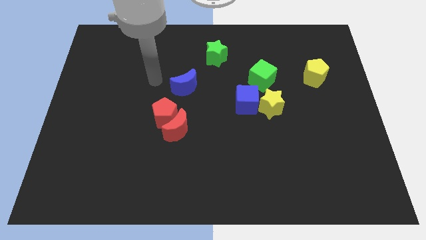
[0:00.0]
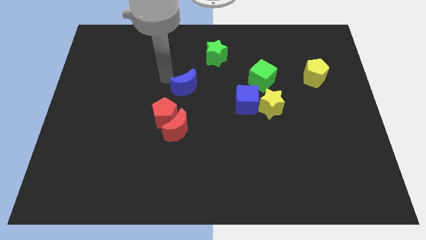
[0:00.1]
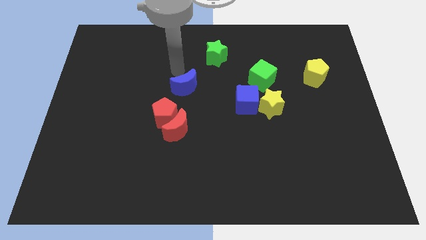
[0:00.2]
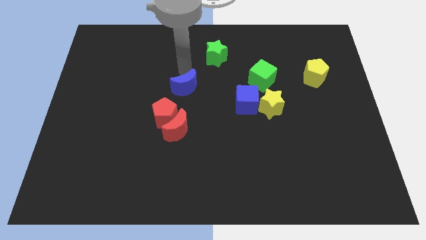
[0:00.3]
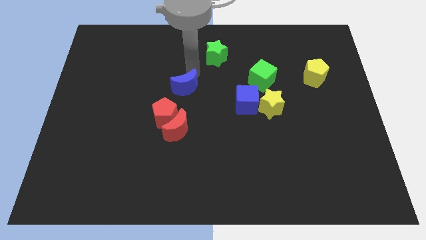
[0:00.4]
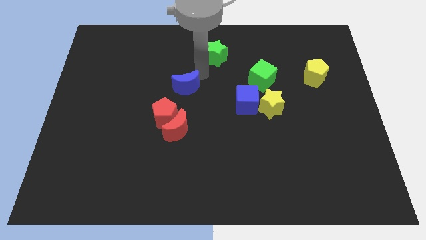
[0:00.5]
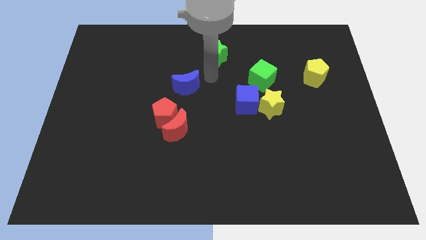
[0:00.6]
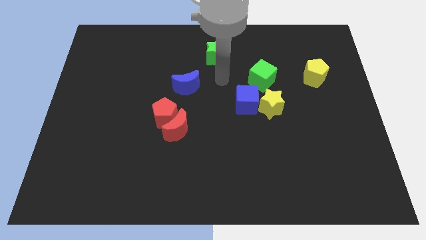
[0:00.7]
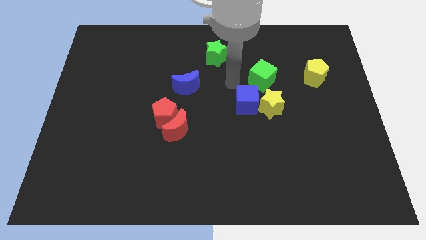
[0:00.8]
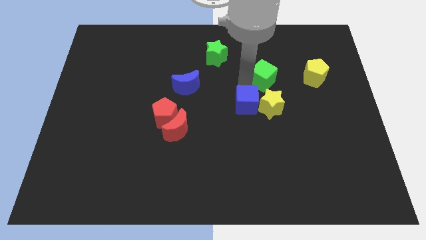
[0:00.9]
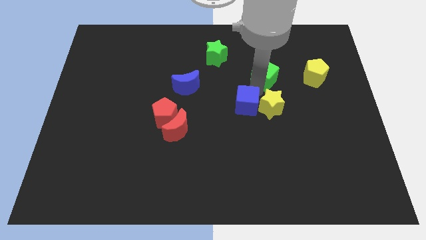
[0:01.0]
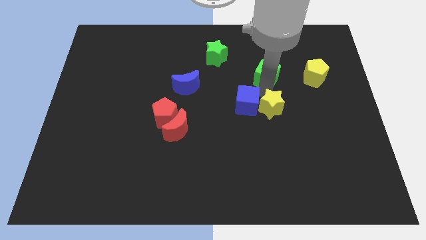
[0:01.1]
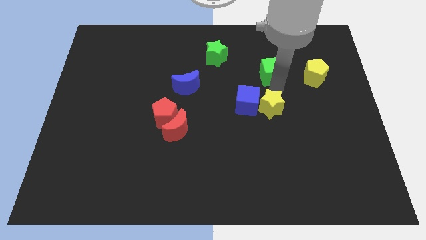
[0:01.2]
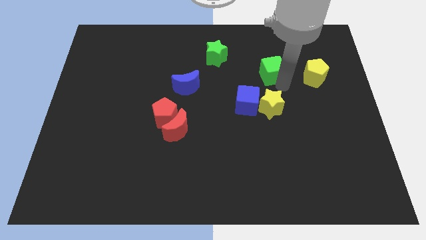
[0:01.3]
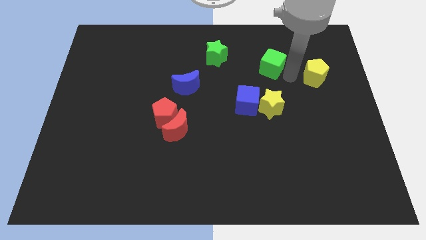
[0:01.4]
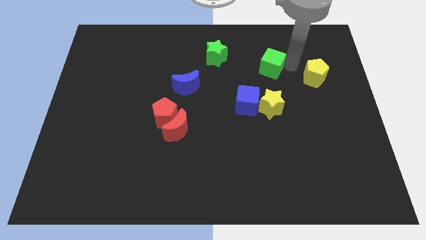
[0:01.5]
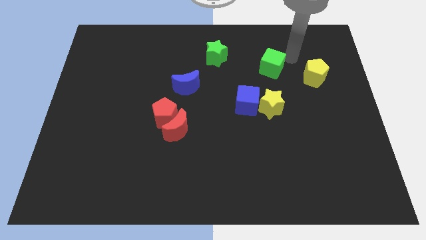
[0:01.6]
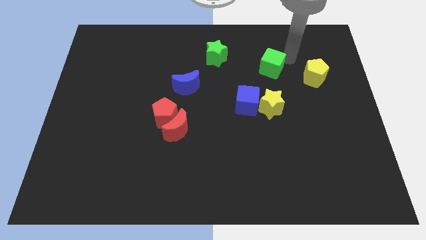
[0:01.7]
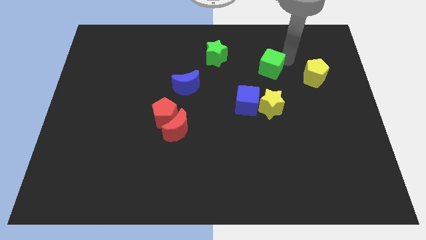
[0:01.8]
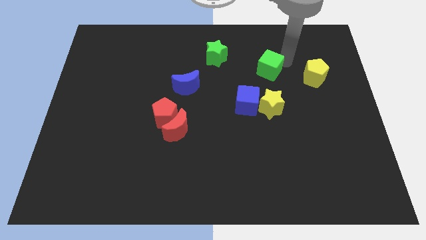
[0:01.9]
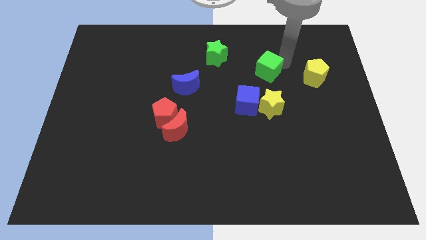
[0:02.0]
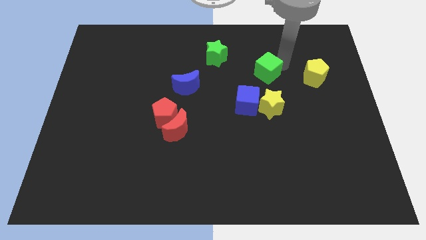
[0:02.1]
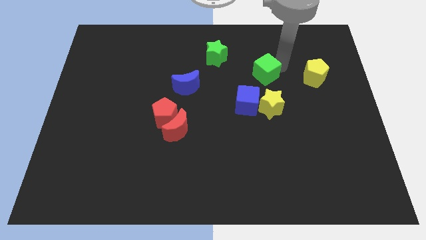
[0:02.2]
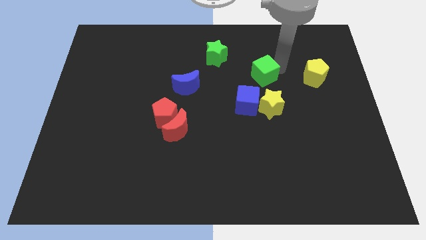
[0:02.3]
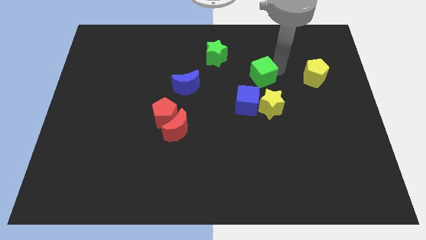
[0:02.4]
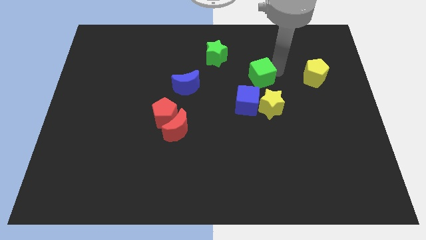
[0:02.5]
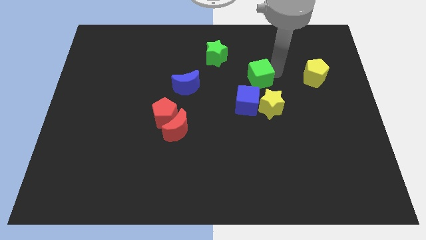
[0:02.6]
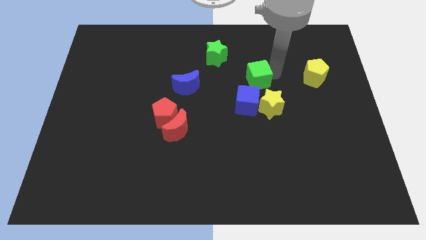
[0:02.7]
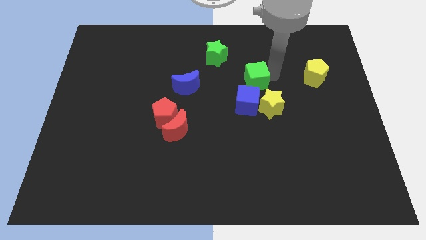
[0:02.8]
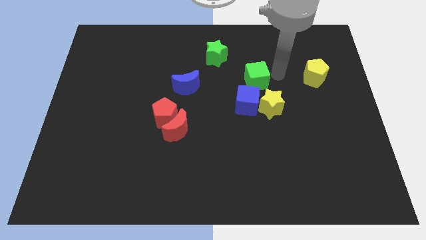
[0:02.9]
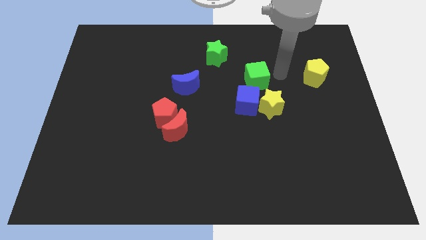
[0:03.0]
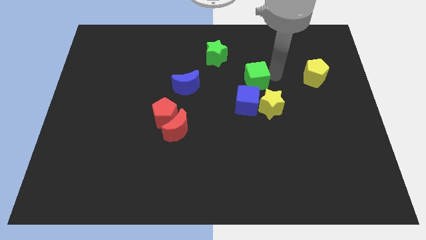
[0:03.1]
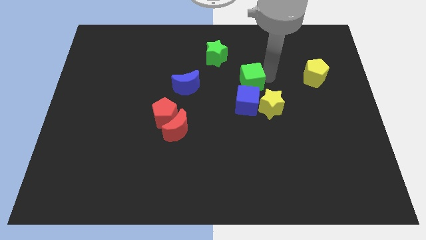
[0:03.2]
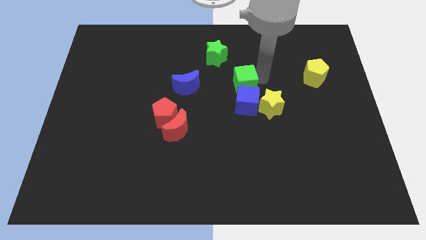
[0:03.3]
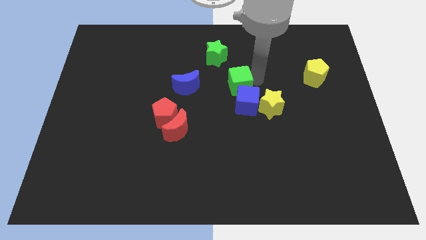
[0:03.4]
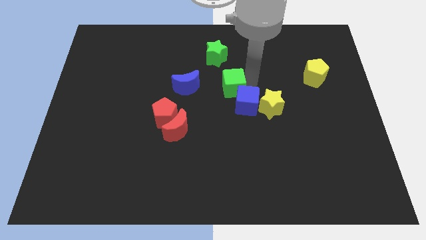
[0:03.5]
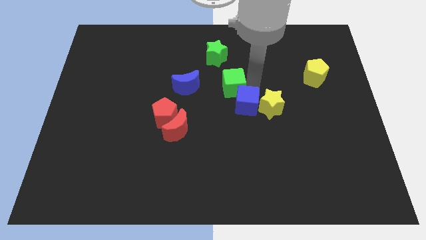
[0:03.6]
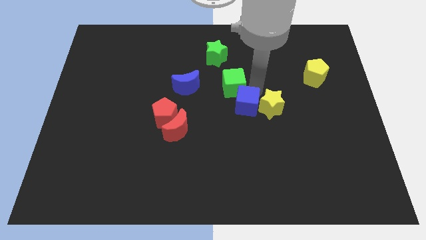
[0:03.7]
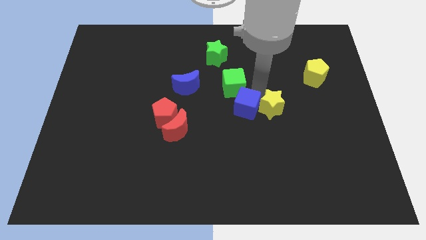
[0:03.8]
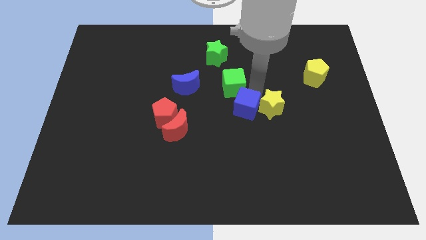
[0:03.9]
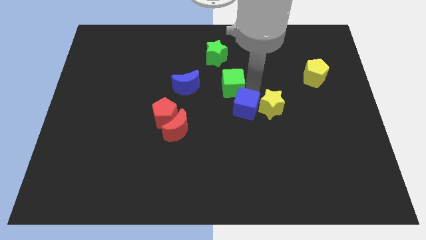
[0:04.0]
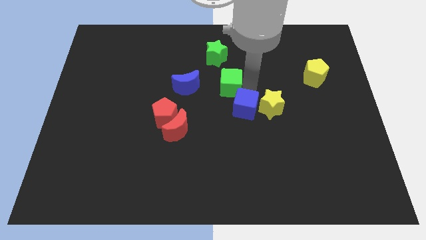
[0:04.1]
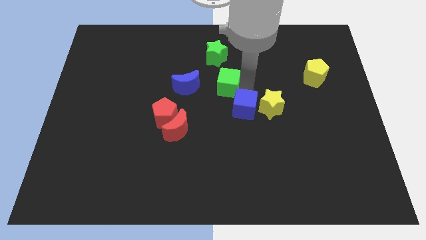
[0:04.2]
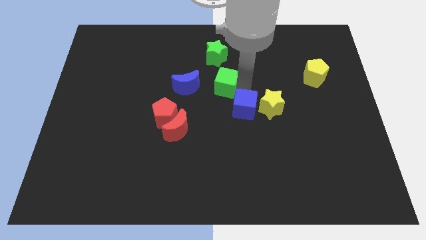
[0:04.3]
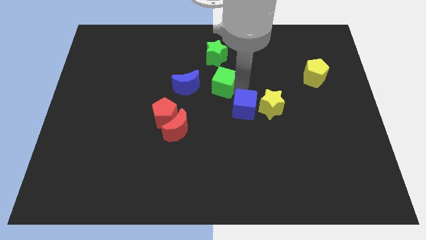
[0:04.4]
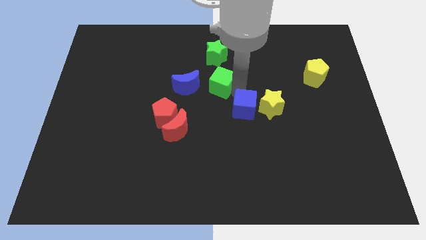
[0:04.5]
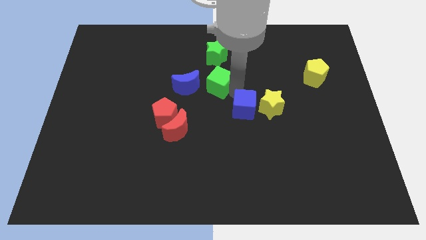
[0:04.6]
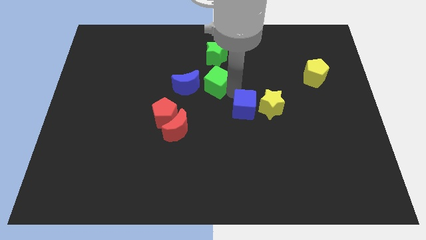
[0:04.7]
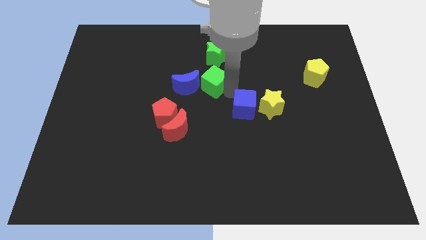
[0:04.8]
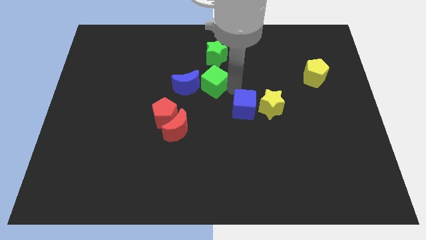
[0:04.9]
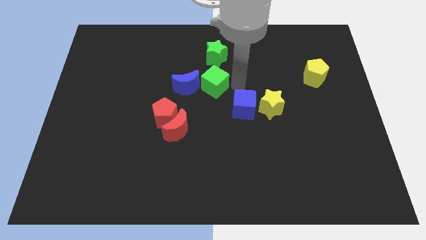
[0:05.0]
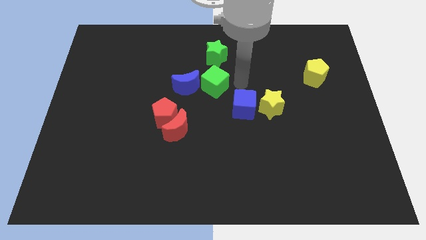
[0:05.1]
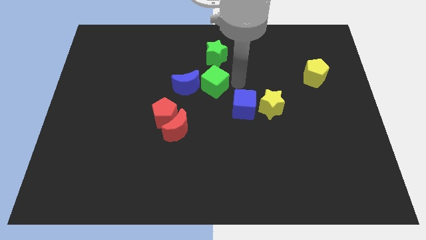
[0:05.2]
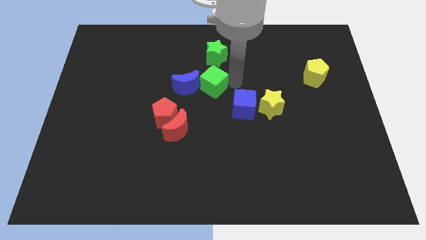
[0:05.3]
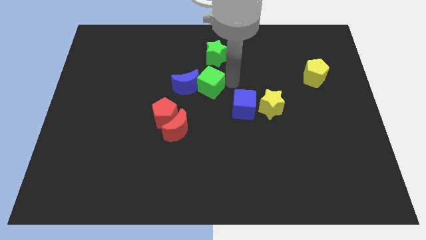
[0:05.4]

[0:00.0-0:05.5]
move the green cube to the blue moon

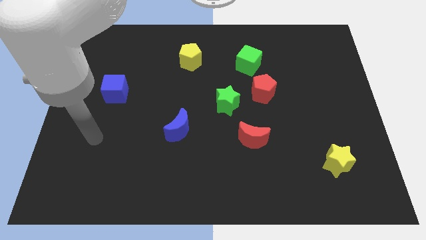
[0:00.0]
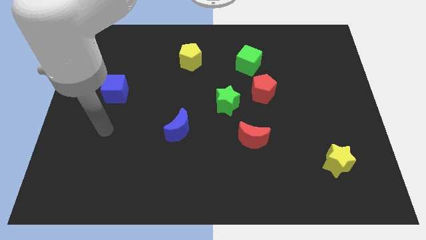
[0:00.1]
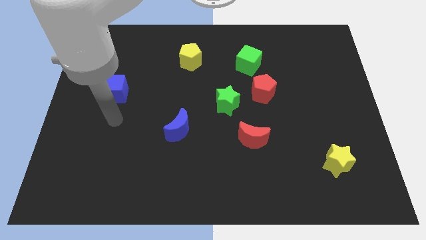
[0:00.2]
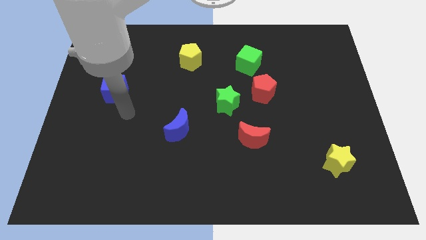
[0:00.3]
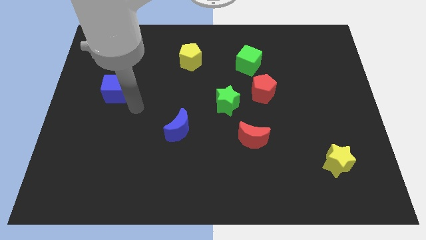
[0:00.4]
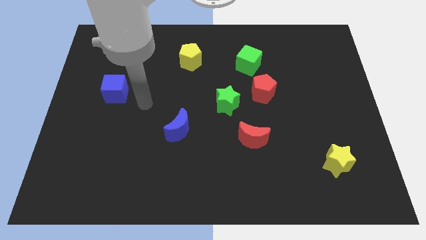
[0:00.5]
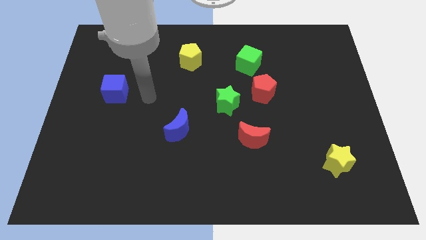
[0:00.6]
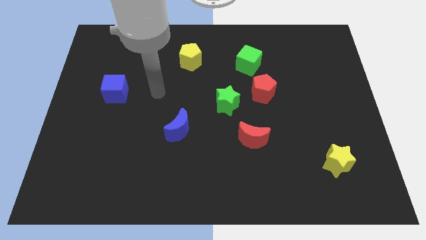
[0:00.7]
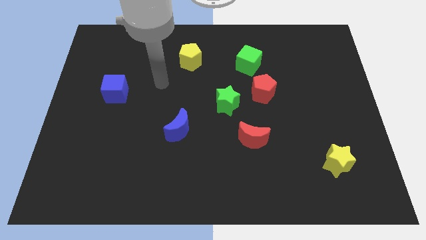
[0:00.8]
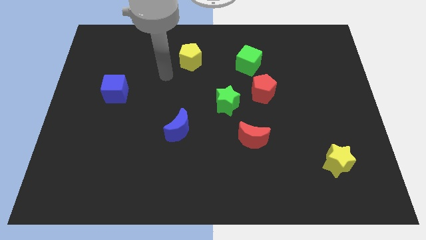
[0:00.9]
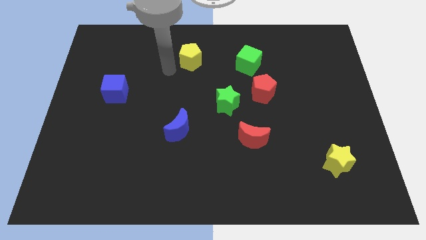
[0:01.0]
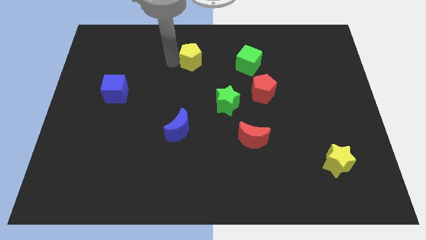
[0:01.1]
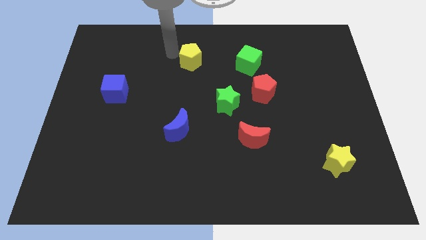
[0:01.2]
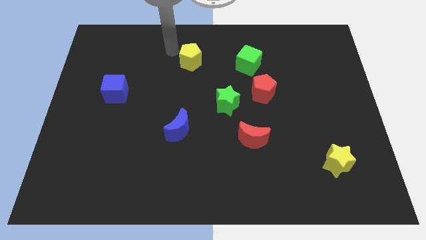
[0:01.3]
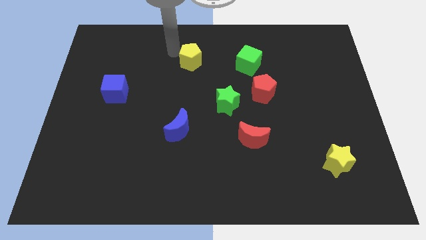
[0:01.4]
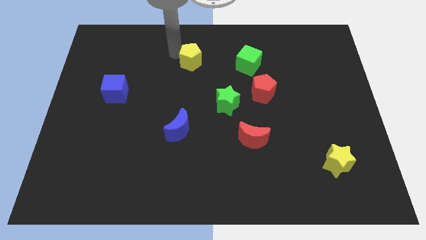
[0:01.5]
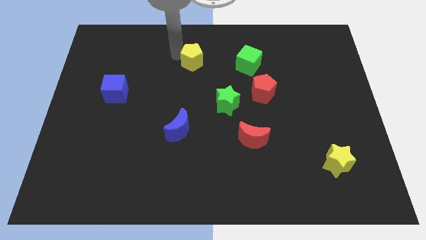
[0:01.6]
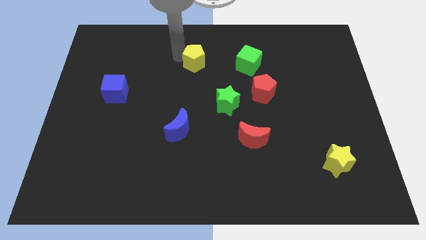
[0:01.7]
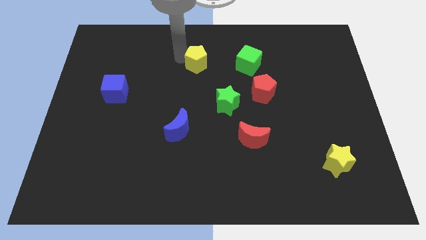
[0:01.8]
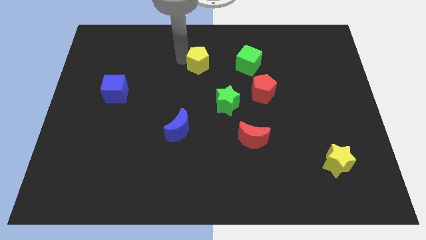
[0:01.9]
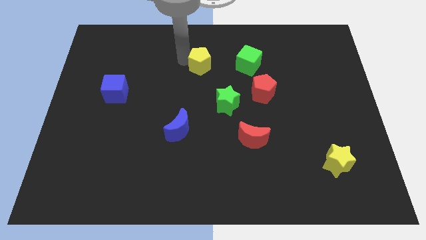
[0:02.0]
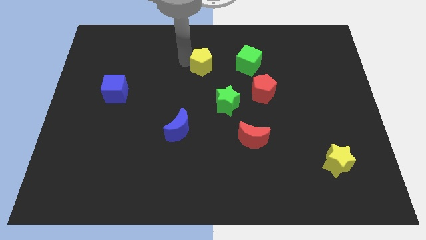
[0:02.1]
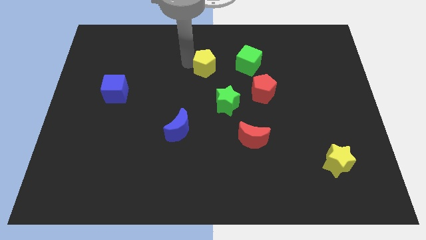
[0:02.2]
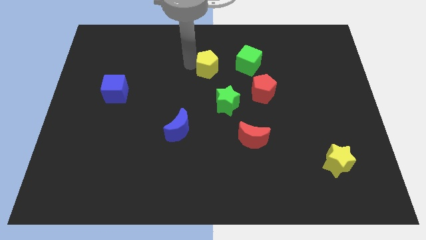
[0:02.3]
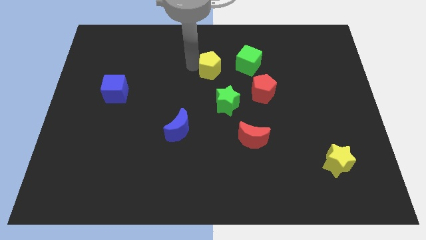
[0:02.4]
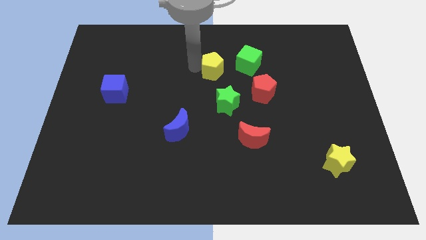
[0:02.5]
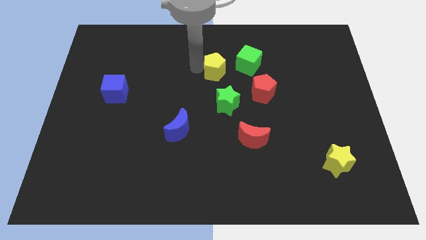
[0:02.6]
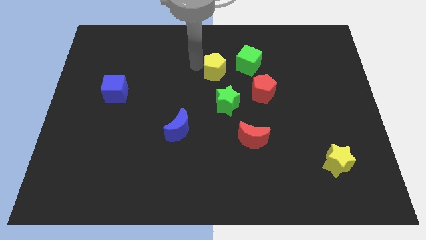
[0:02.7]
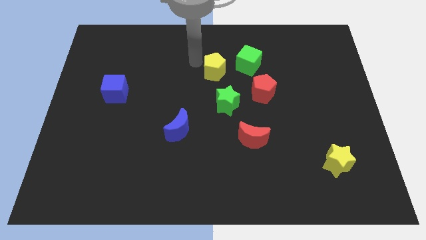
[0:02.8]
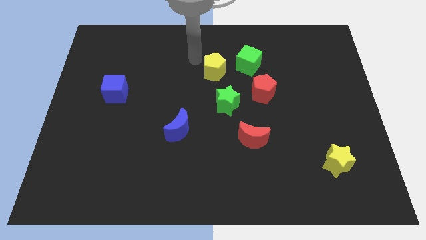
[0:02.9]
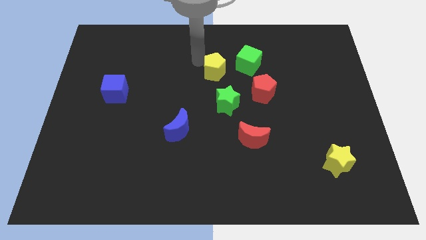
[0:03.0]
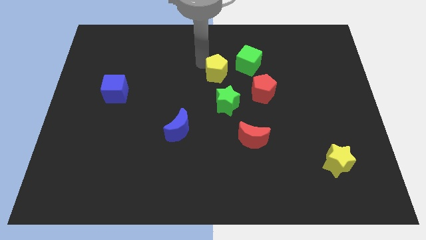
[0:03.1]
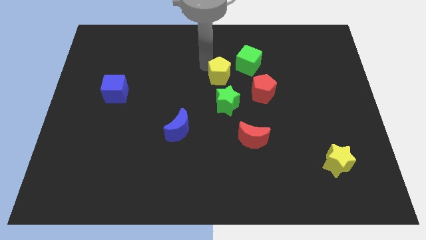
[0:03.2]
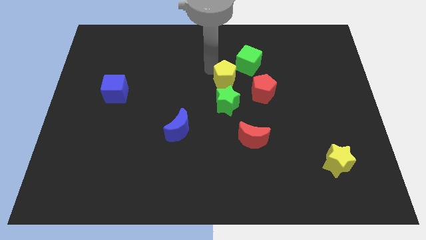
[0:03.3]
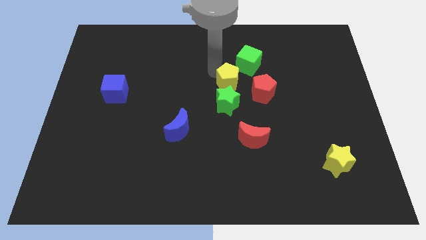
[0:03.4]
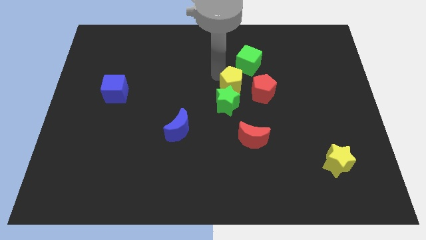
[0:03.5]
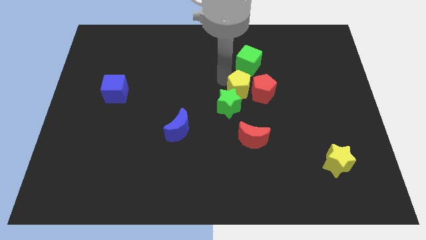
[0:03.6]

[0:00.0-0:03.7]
move the yellow pentagon close to the red pentagon
